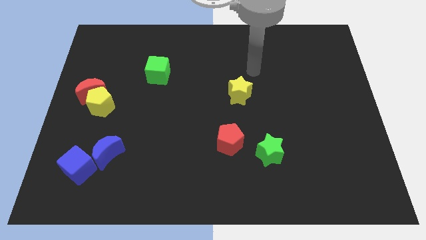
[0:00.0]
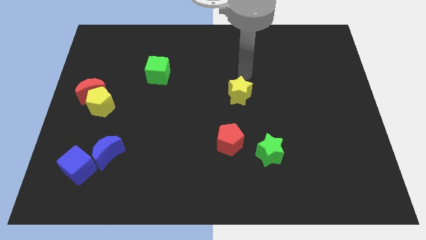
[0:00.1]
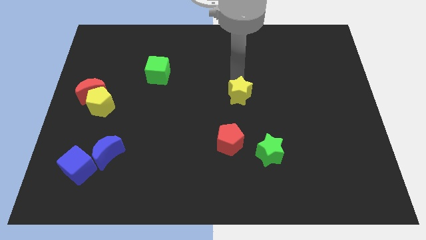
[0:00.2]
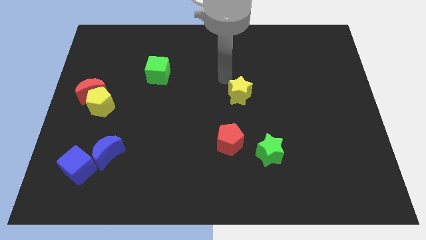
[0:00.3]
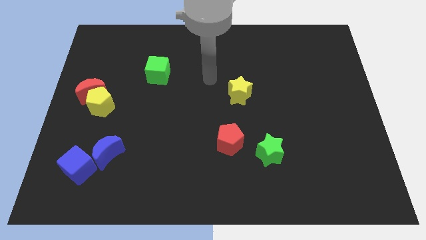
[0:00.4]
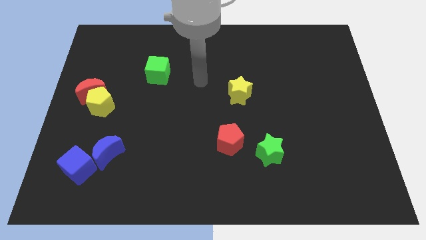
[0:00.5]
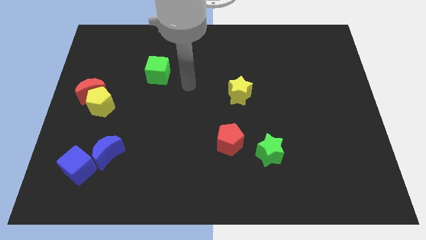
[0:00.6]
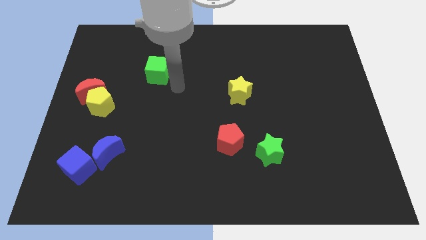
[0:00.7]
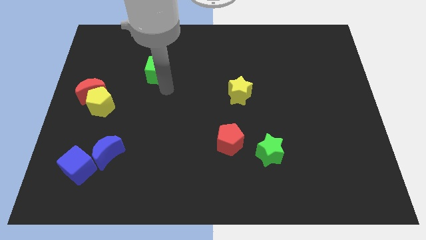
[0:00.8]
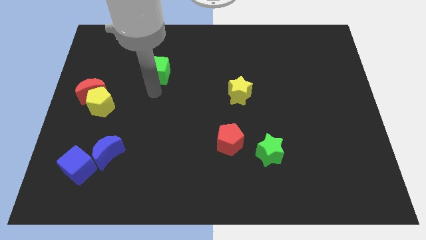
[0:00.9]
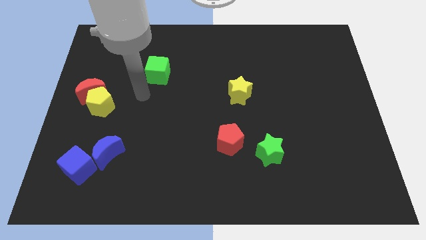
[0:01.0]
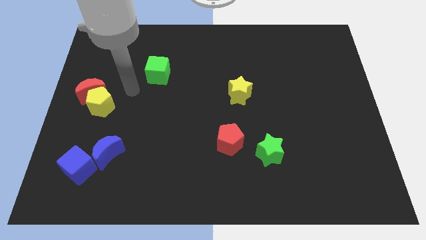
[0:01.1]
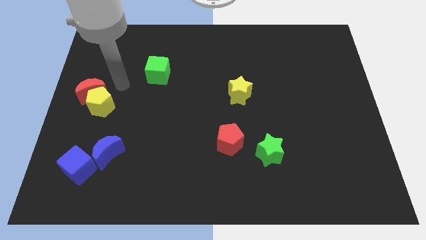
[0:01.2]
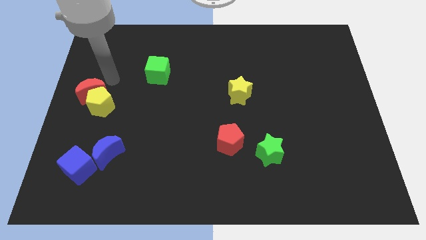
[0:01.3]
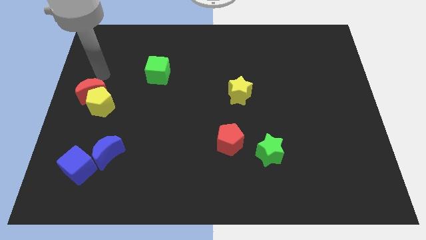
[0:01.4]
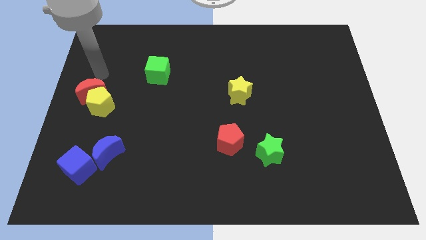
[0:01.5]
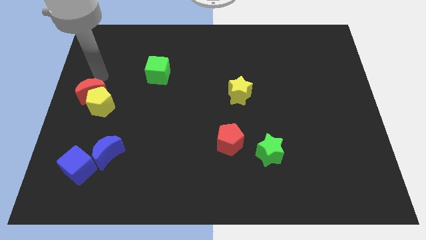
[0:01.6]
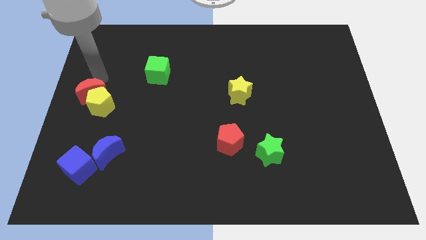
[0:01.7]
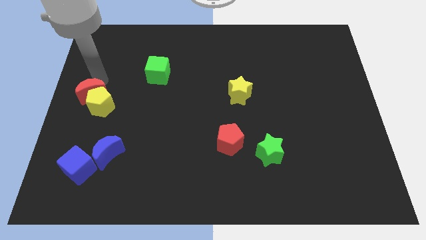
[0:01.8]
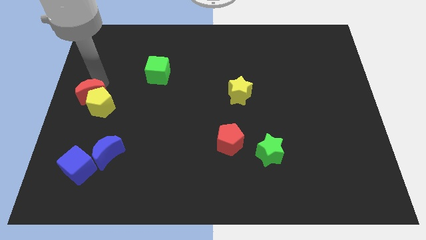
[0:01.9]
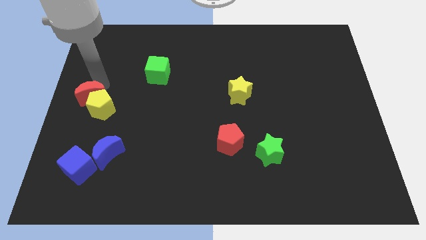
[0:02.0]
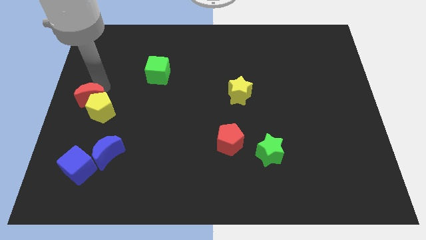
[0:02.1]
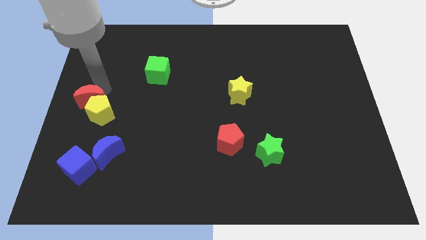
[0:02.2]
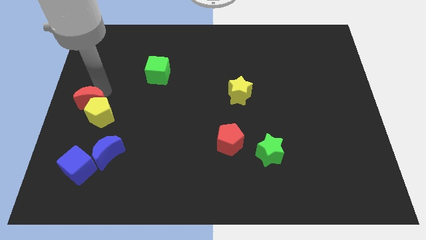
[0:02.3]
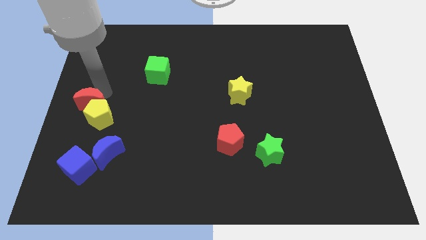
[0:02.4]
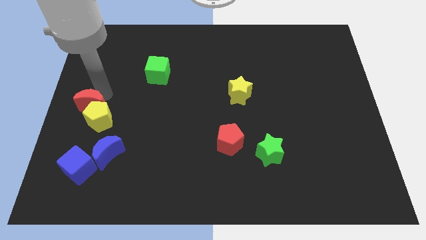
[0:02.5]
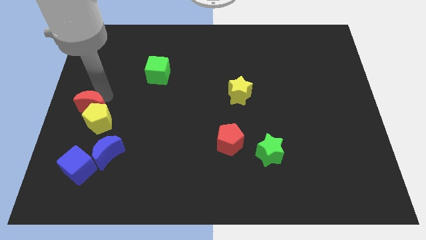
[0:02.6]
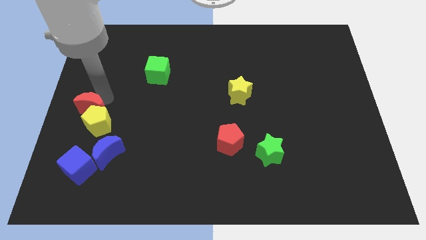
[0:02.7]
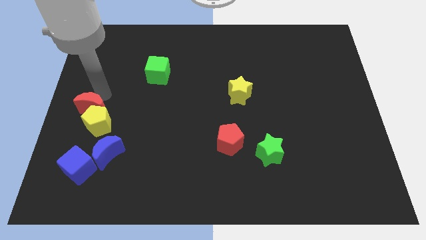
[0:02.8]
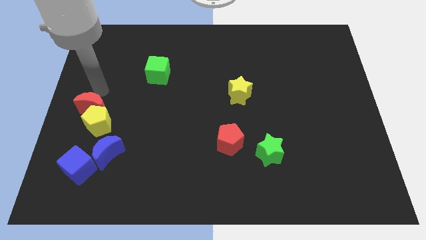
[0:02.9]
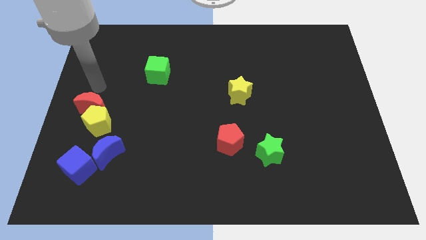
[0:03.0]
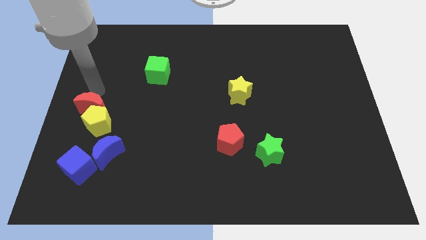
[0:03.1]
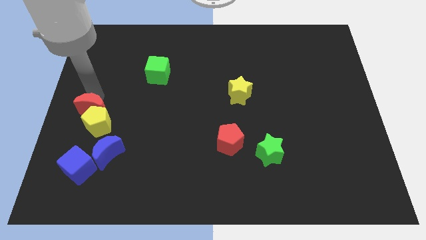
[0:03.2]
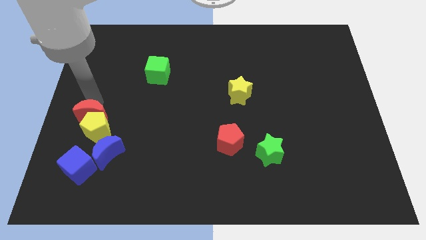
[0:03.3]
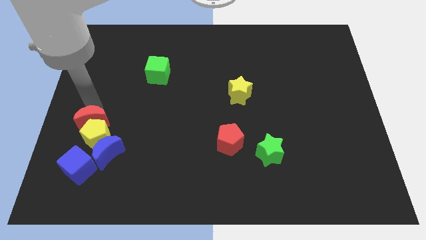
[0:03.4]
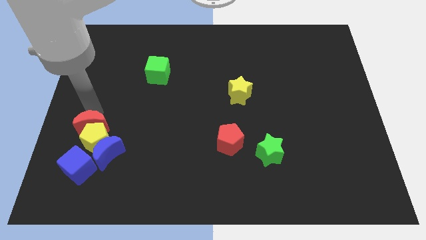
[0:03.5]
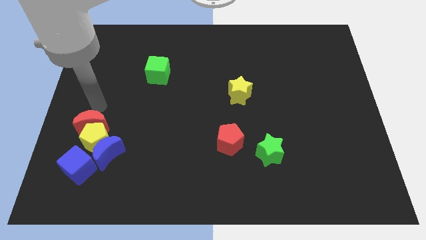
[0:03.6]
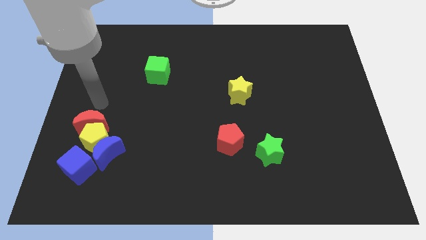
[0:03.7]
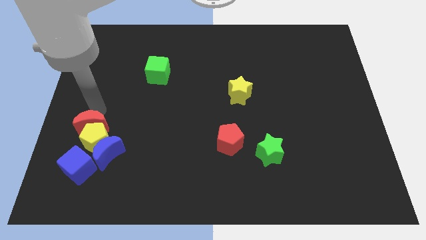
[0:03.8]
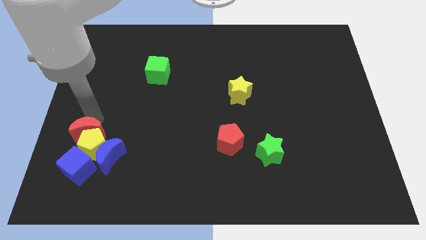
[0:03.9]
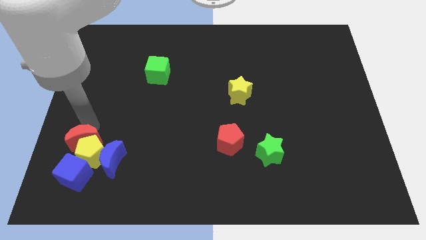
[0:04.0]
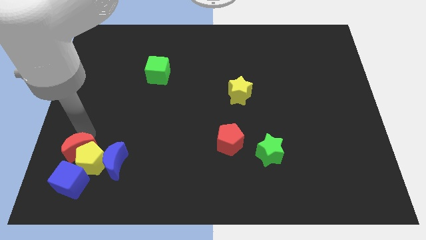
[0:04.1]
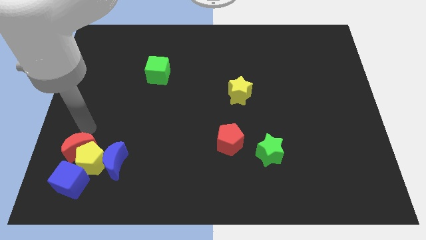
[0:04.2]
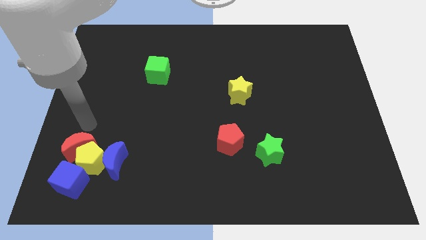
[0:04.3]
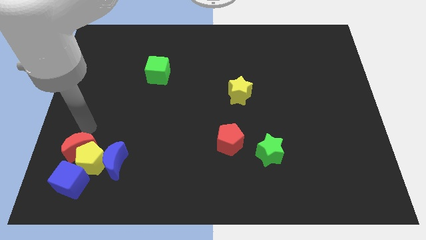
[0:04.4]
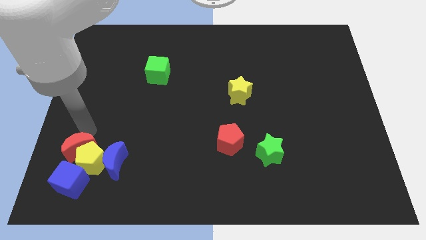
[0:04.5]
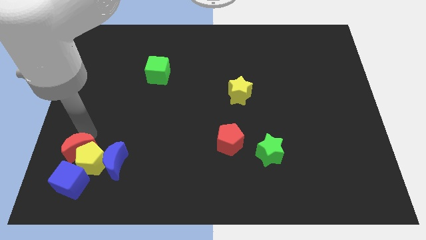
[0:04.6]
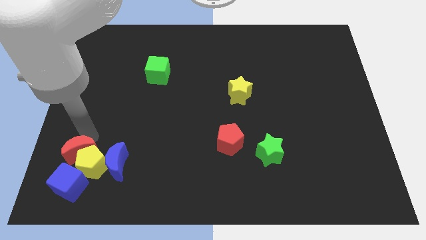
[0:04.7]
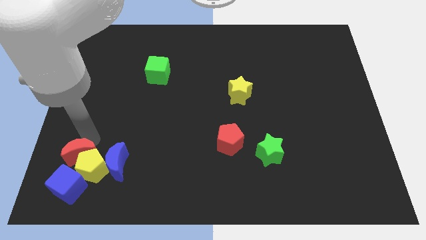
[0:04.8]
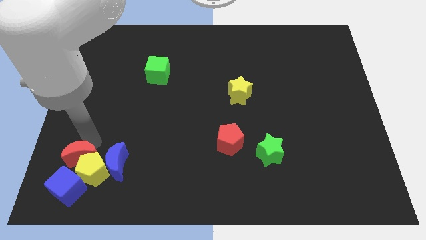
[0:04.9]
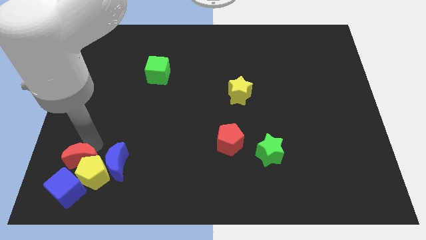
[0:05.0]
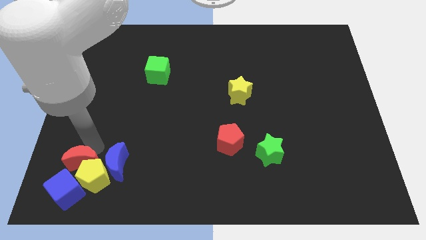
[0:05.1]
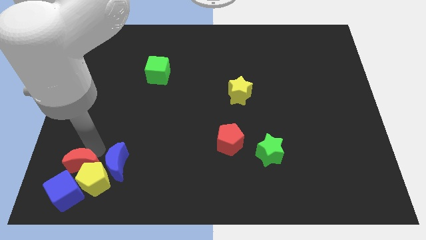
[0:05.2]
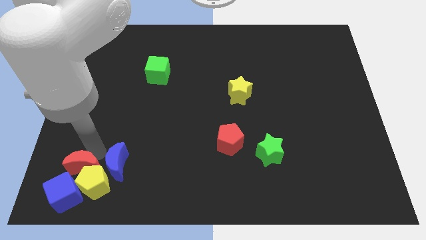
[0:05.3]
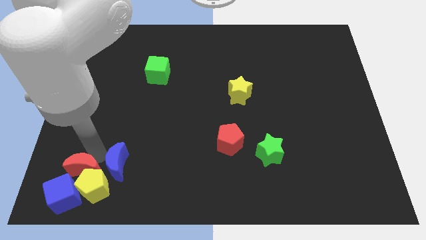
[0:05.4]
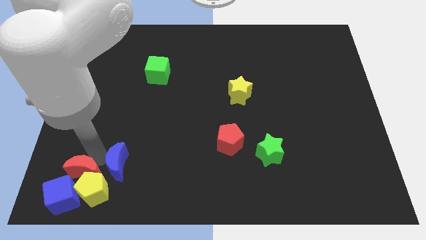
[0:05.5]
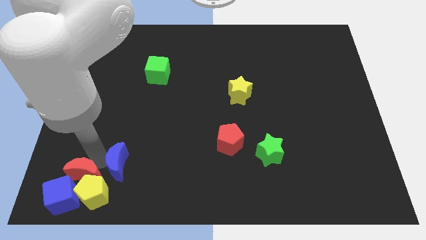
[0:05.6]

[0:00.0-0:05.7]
slide the red moon next to the blue cube

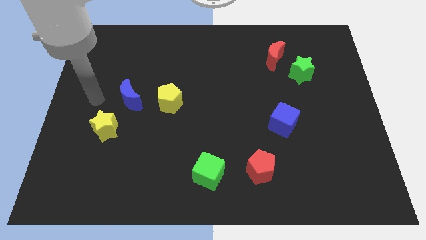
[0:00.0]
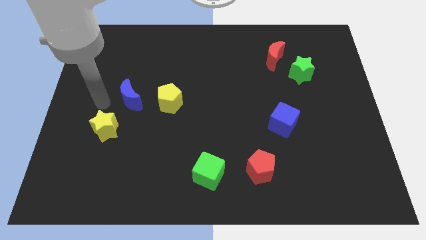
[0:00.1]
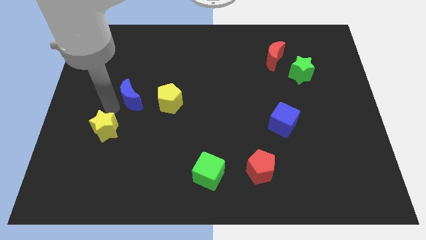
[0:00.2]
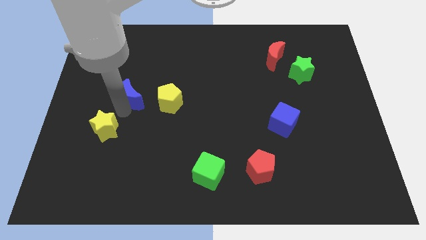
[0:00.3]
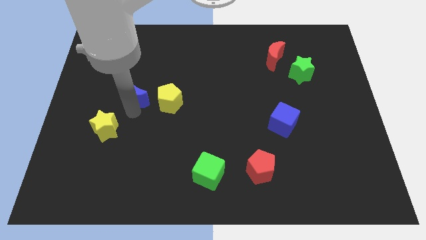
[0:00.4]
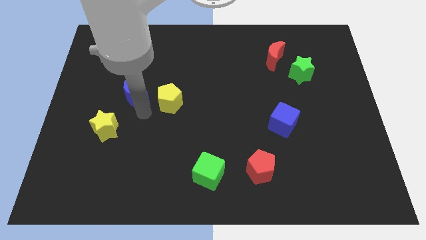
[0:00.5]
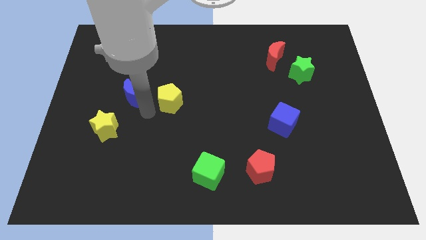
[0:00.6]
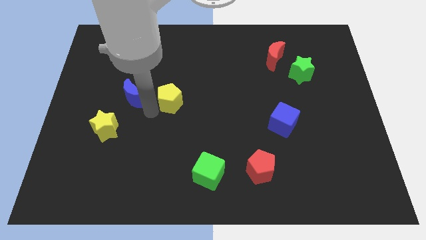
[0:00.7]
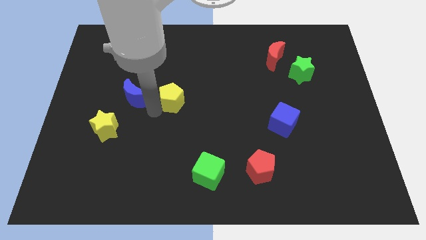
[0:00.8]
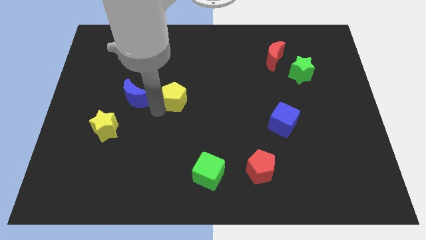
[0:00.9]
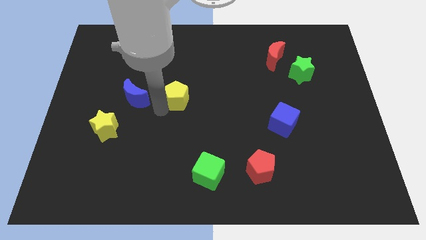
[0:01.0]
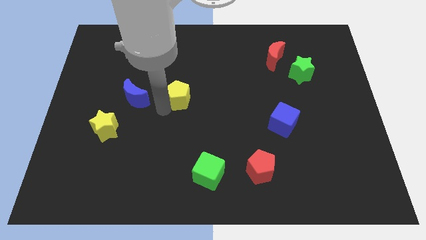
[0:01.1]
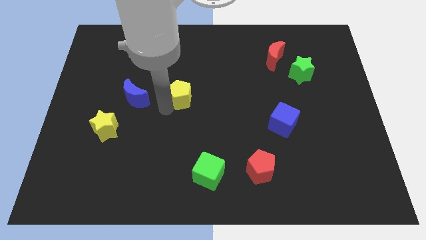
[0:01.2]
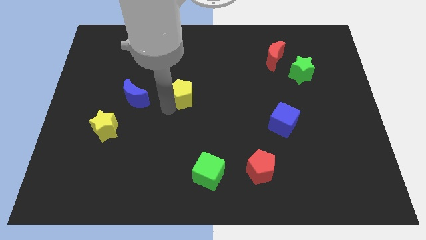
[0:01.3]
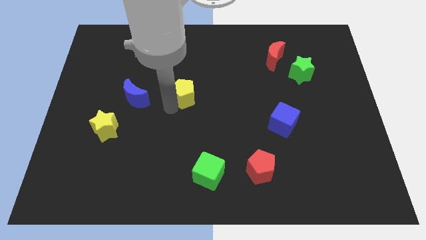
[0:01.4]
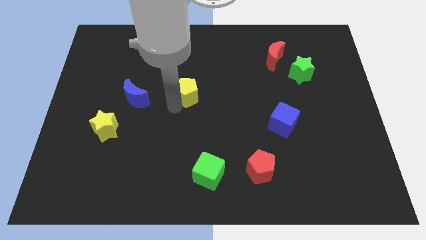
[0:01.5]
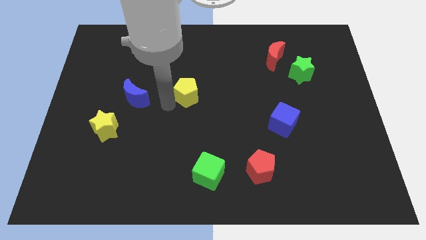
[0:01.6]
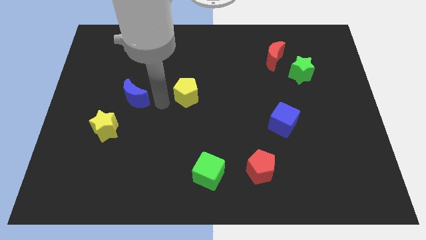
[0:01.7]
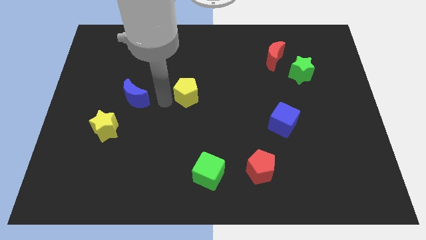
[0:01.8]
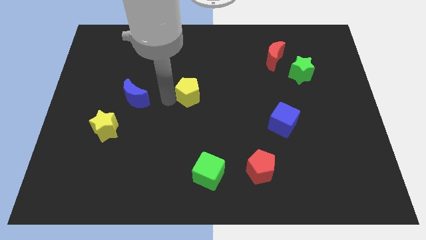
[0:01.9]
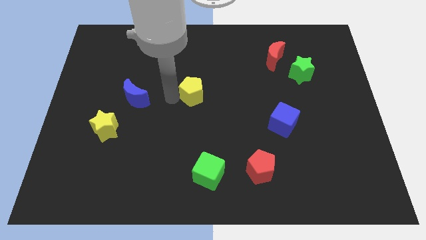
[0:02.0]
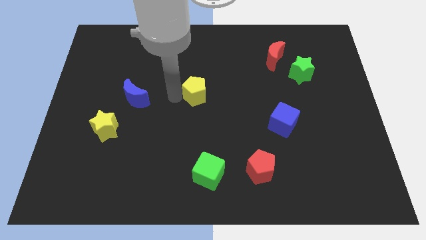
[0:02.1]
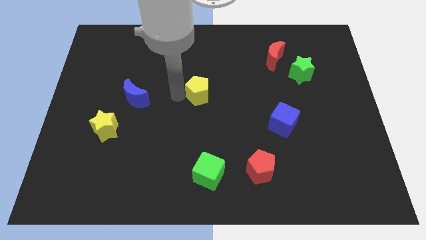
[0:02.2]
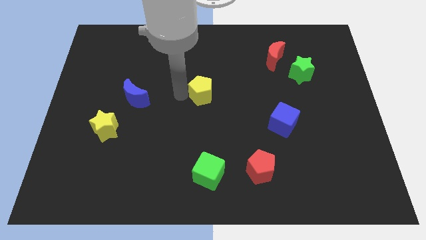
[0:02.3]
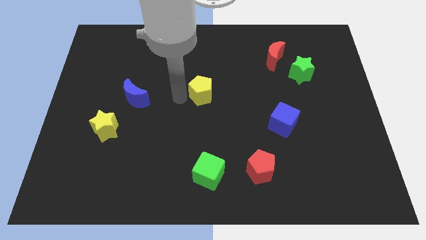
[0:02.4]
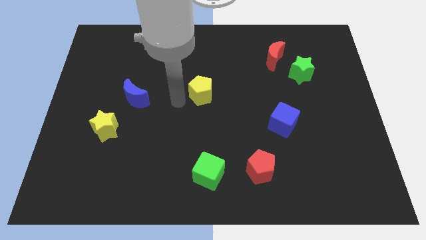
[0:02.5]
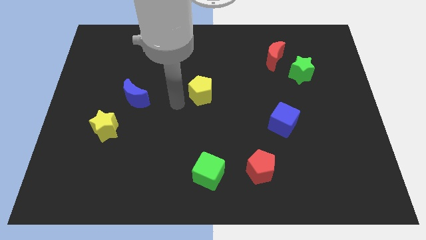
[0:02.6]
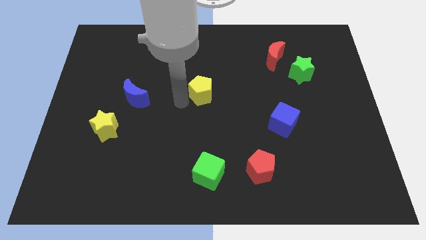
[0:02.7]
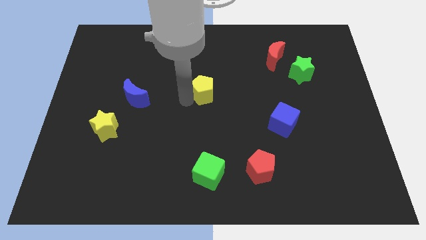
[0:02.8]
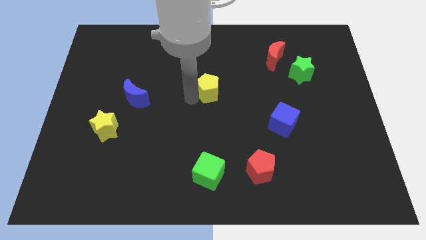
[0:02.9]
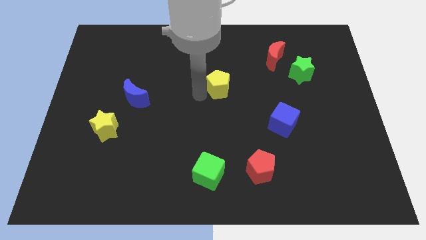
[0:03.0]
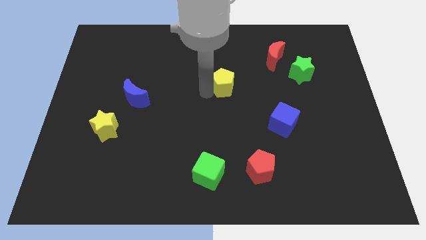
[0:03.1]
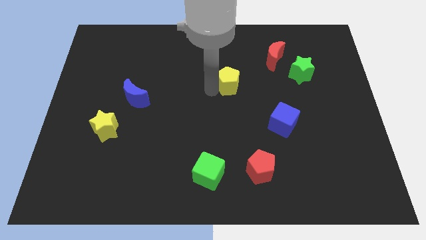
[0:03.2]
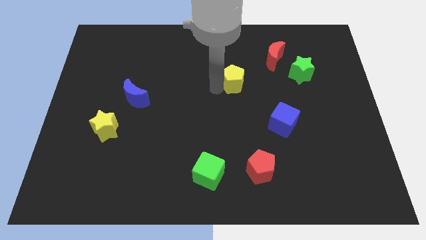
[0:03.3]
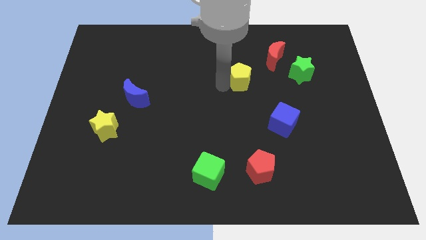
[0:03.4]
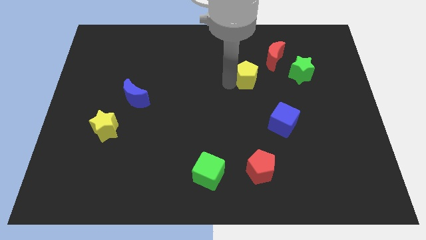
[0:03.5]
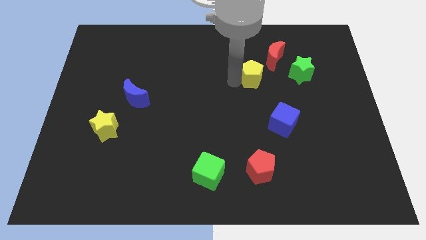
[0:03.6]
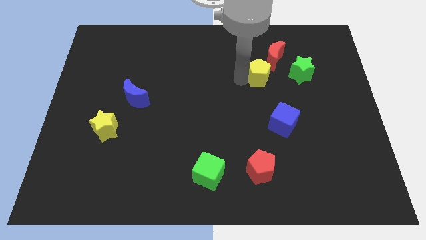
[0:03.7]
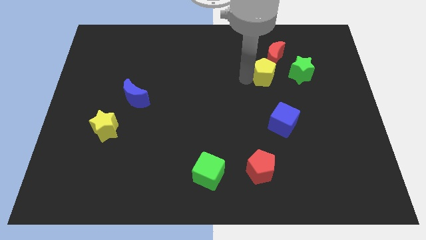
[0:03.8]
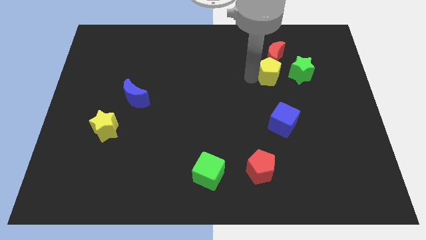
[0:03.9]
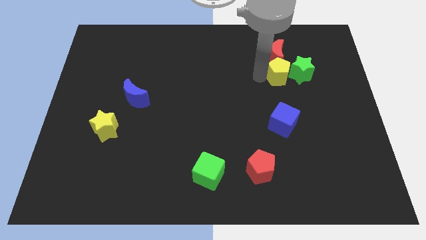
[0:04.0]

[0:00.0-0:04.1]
slide the yellow pentagon towards the green star
